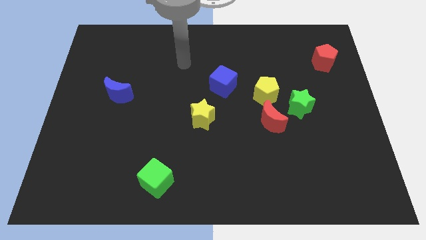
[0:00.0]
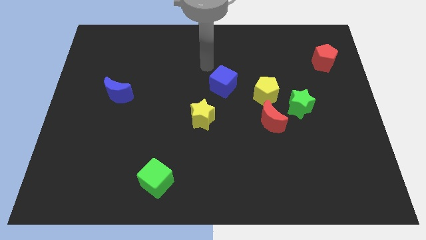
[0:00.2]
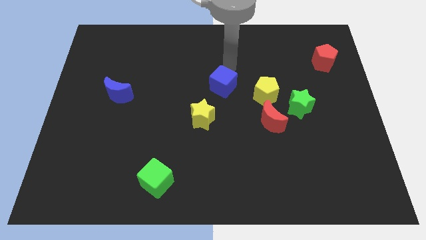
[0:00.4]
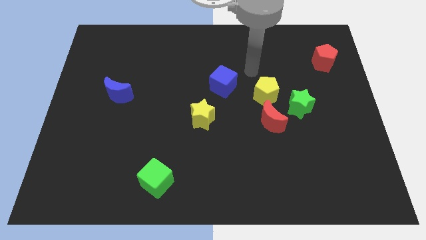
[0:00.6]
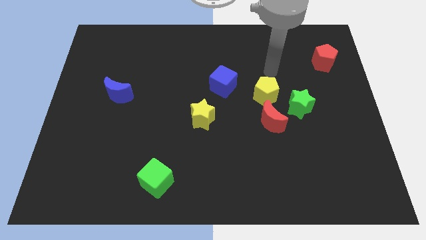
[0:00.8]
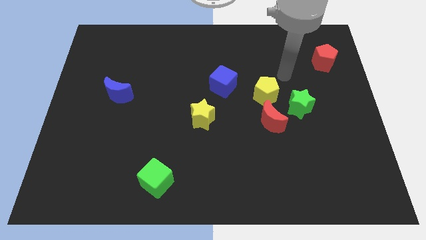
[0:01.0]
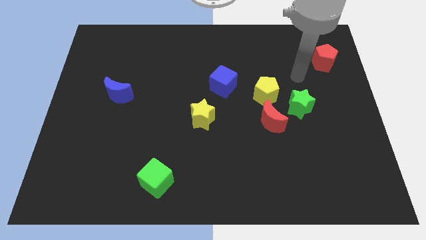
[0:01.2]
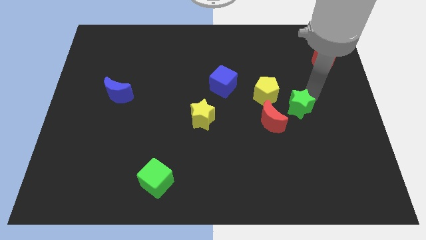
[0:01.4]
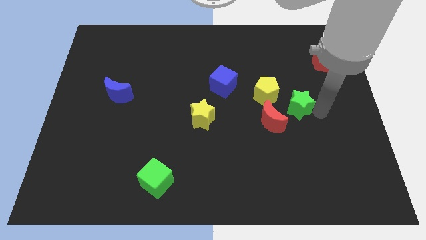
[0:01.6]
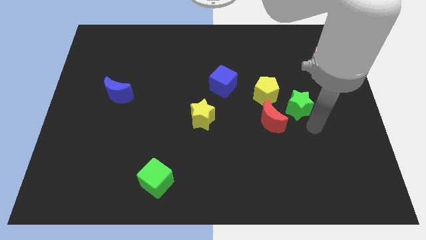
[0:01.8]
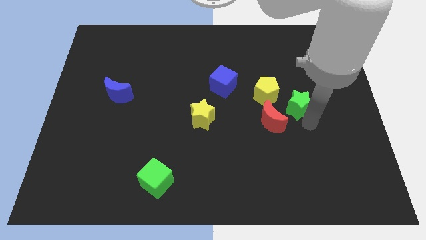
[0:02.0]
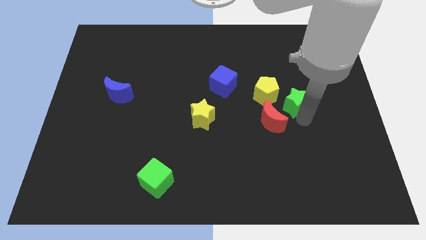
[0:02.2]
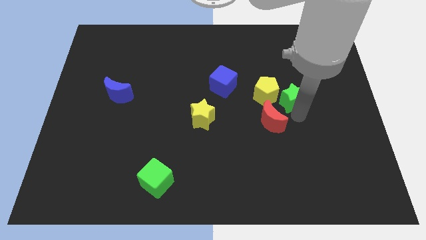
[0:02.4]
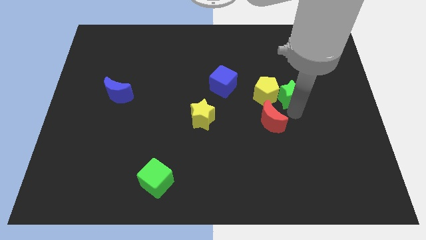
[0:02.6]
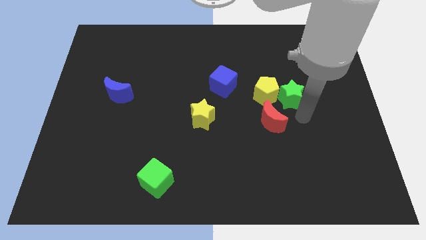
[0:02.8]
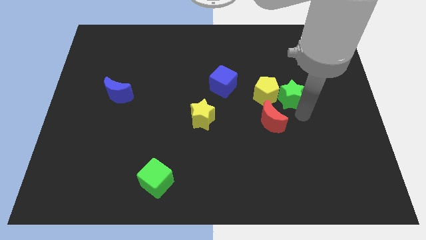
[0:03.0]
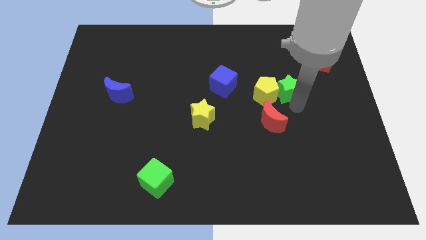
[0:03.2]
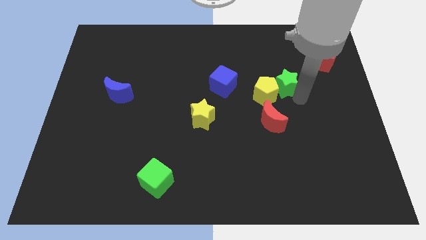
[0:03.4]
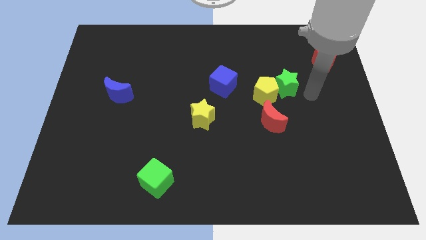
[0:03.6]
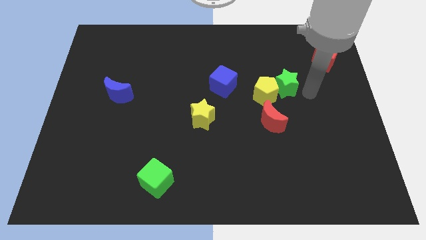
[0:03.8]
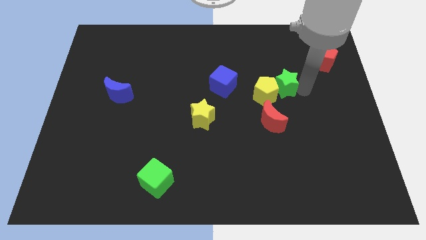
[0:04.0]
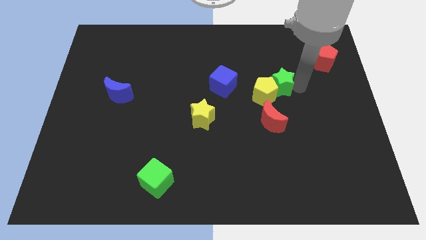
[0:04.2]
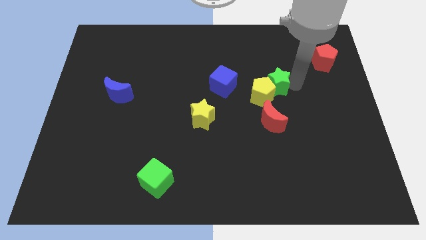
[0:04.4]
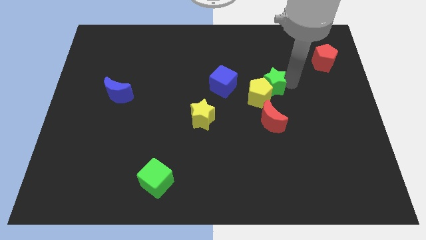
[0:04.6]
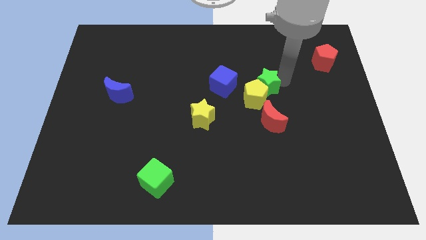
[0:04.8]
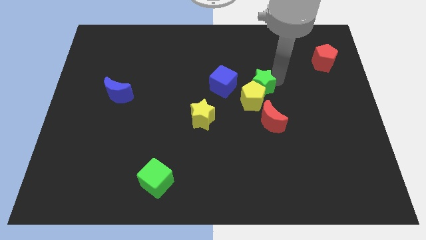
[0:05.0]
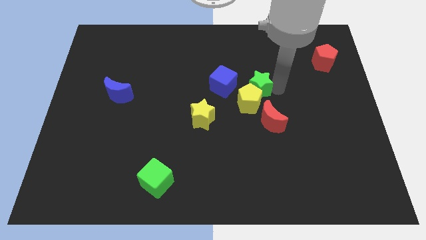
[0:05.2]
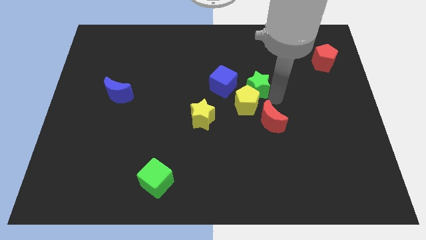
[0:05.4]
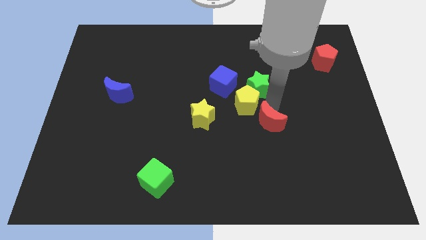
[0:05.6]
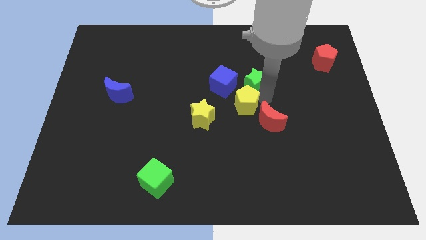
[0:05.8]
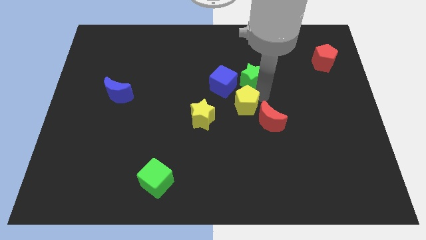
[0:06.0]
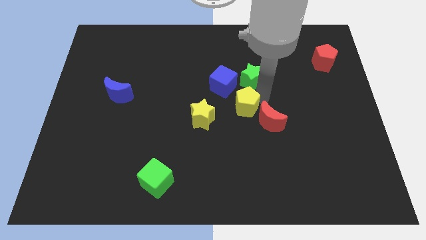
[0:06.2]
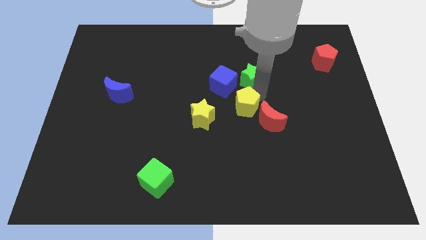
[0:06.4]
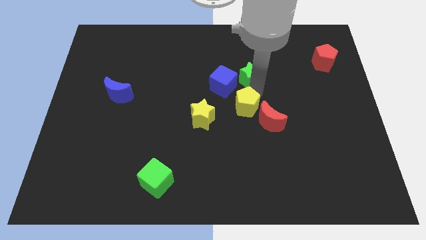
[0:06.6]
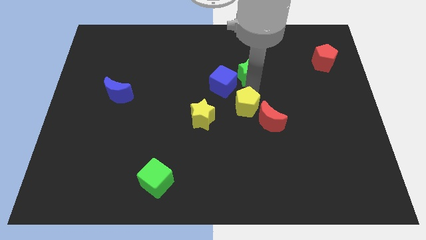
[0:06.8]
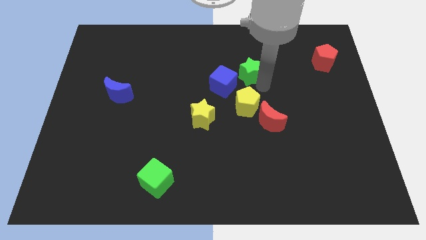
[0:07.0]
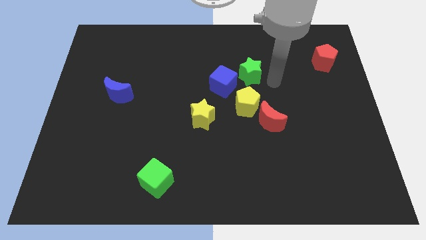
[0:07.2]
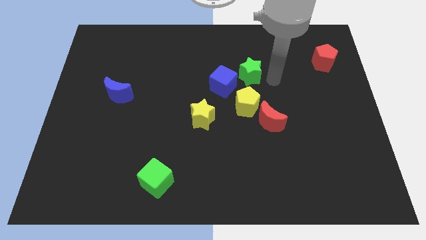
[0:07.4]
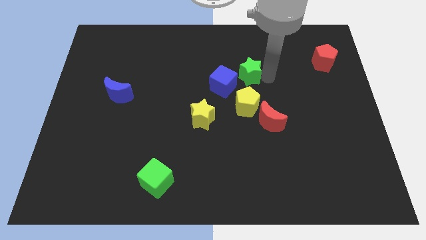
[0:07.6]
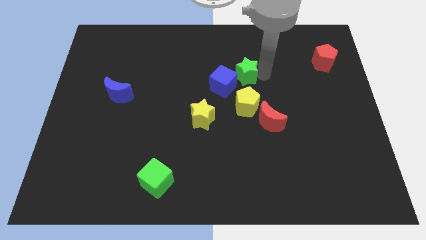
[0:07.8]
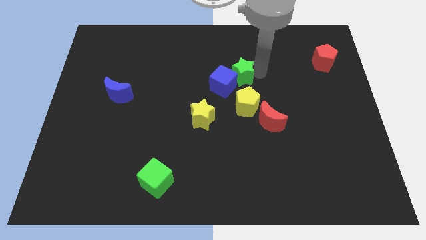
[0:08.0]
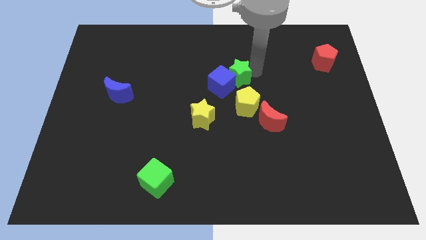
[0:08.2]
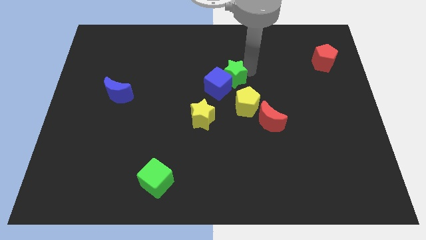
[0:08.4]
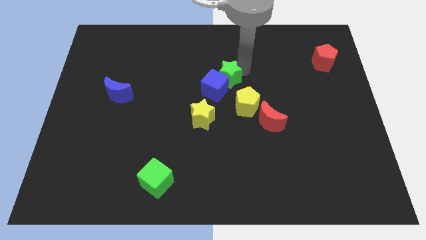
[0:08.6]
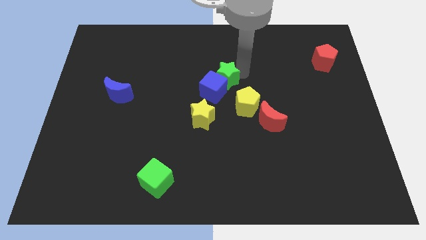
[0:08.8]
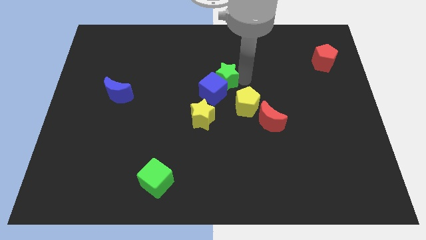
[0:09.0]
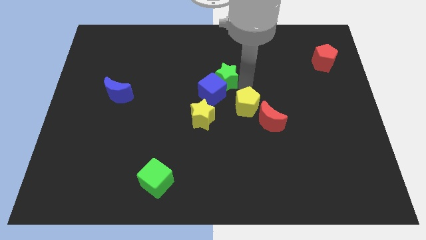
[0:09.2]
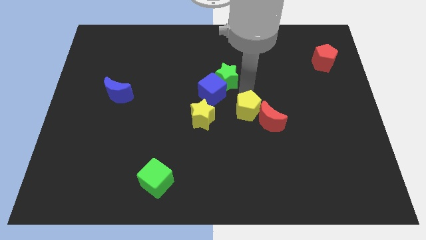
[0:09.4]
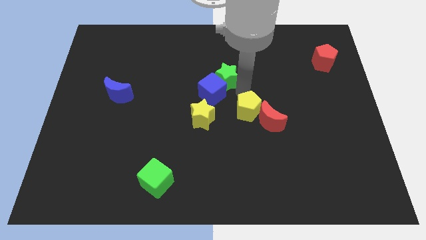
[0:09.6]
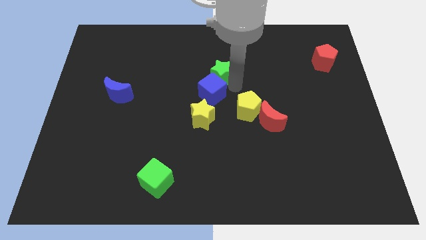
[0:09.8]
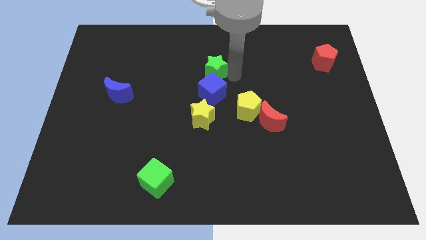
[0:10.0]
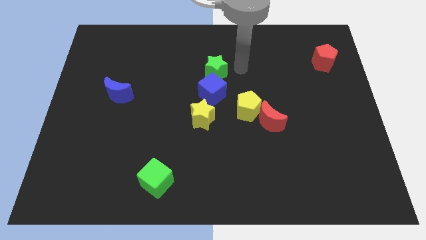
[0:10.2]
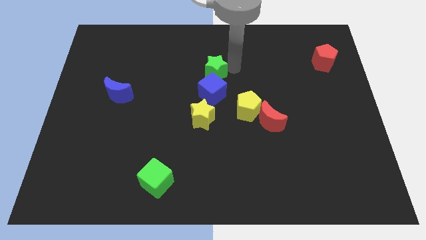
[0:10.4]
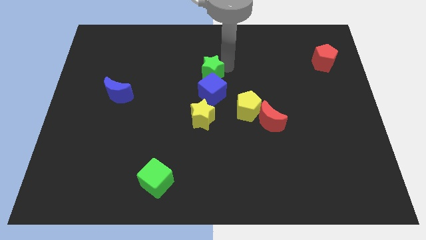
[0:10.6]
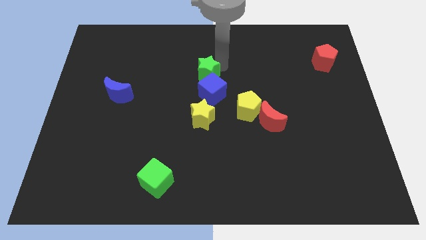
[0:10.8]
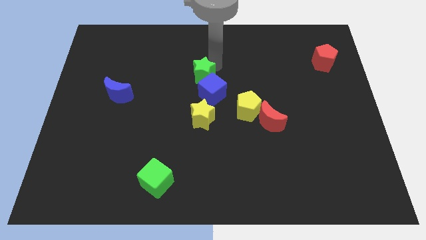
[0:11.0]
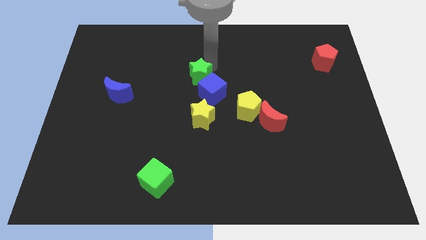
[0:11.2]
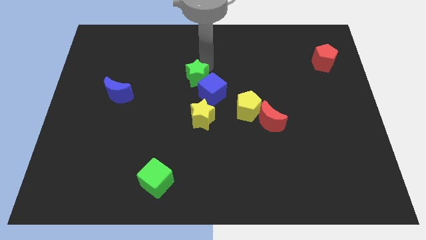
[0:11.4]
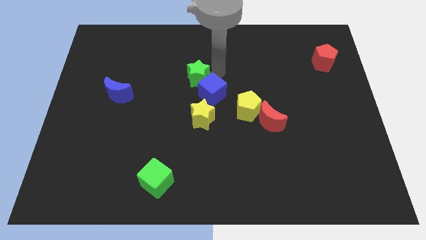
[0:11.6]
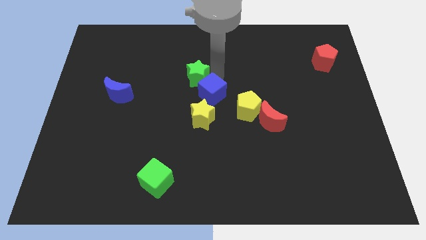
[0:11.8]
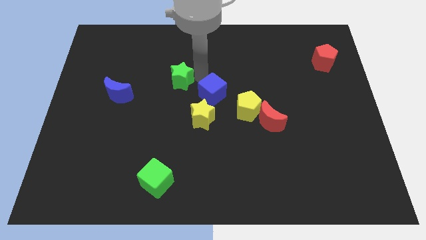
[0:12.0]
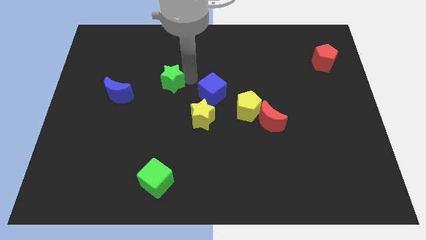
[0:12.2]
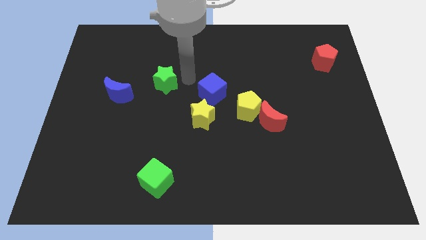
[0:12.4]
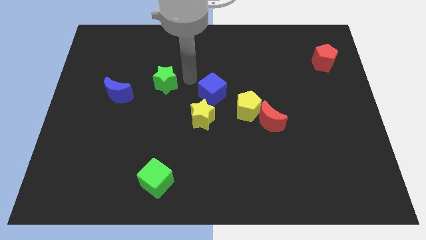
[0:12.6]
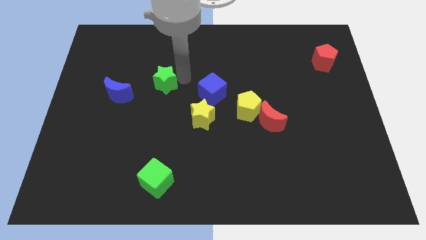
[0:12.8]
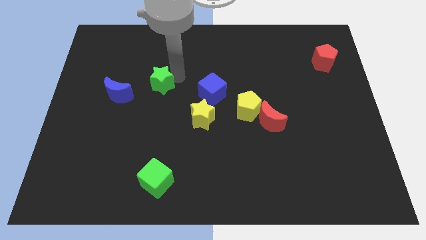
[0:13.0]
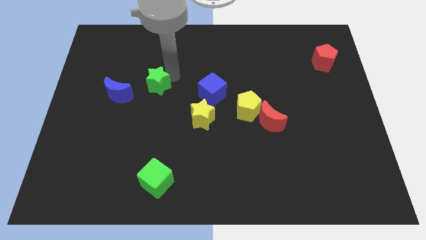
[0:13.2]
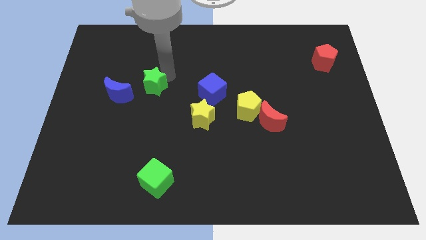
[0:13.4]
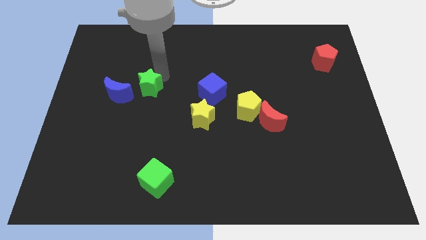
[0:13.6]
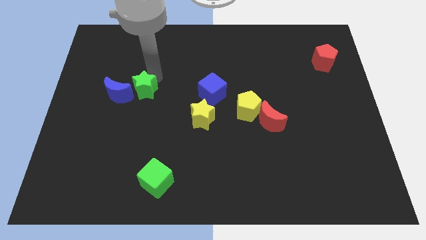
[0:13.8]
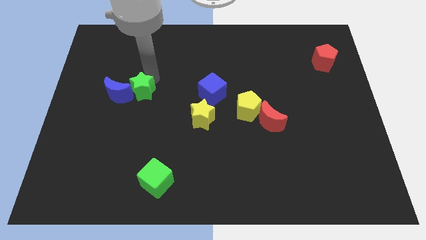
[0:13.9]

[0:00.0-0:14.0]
slide the green star close to the blue moon
